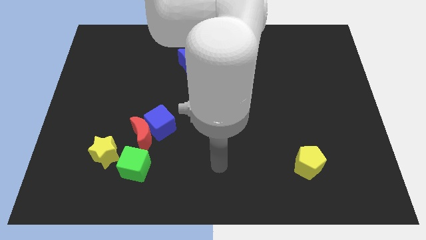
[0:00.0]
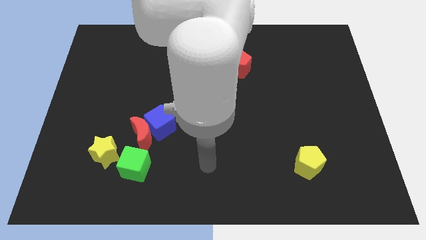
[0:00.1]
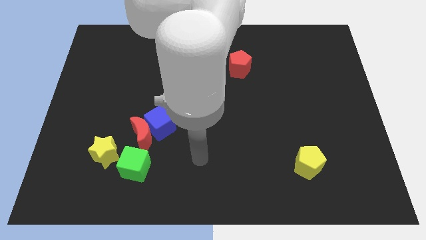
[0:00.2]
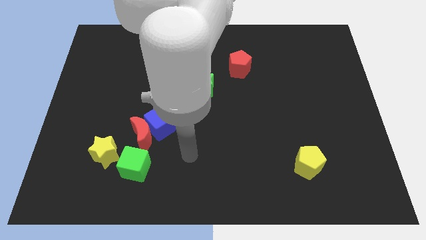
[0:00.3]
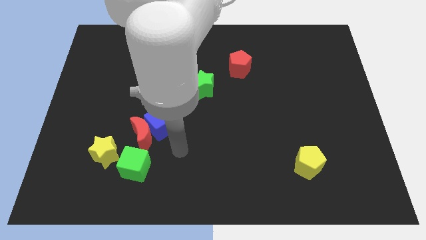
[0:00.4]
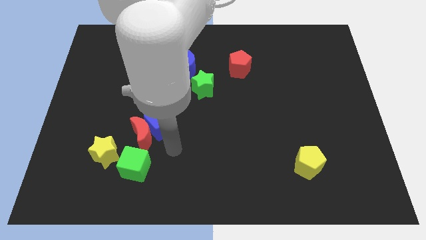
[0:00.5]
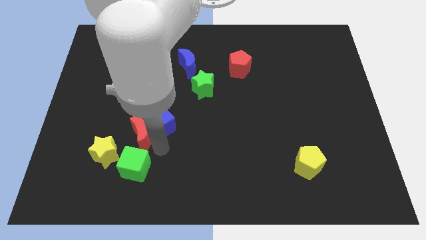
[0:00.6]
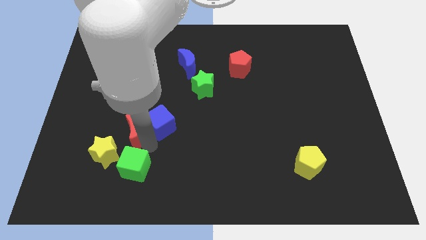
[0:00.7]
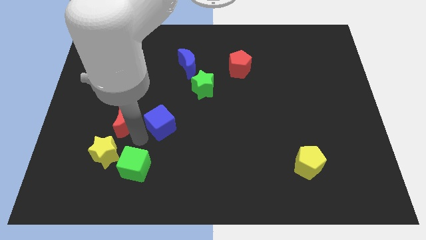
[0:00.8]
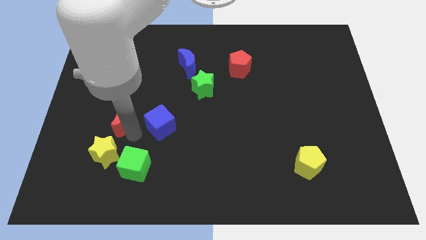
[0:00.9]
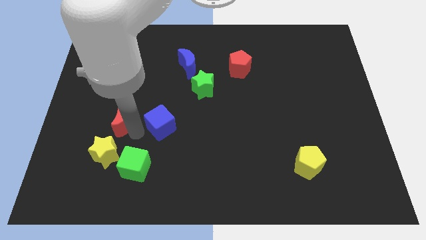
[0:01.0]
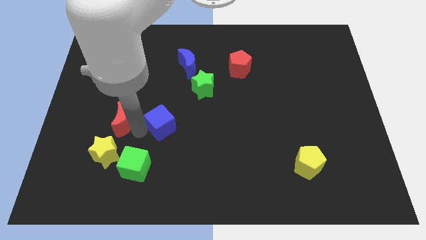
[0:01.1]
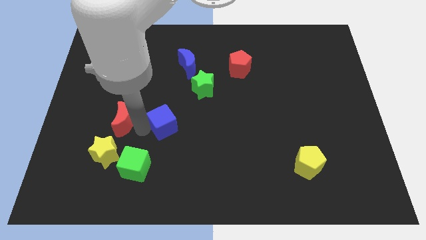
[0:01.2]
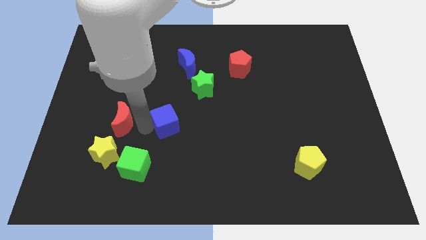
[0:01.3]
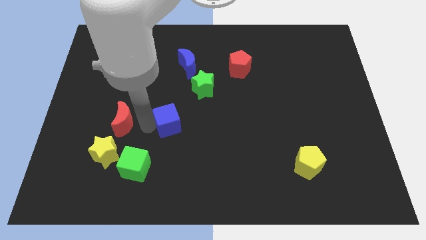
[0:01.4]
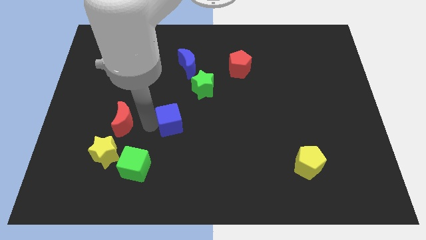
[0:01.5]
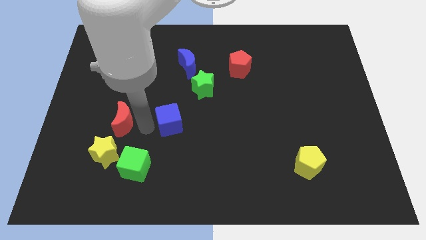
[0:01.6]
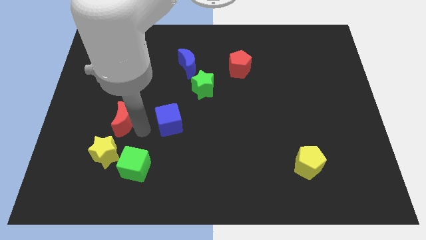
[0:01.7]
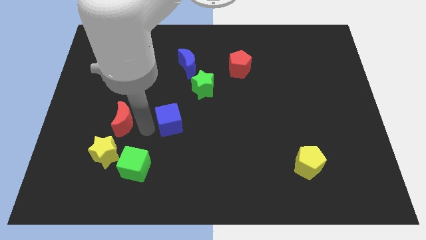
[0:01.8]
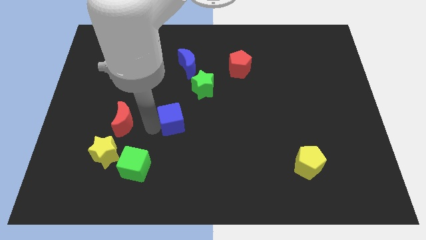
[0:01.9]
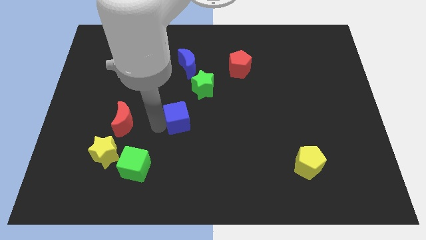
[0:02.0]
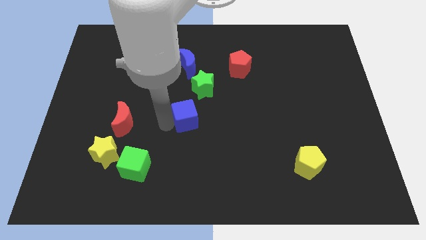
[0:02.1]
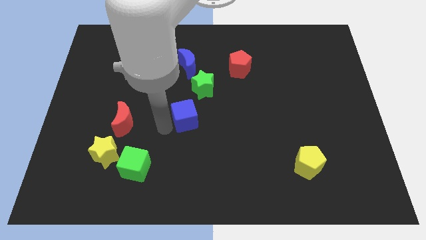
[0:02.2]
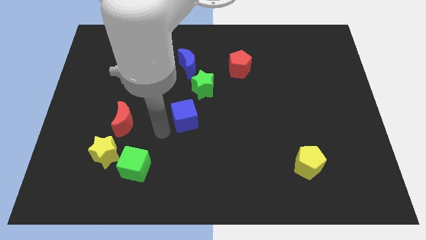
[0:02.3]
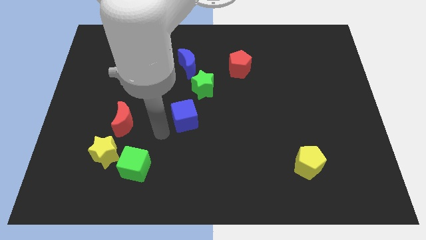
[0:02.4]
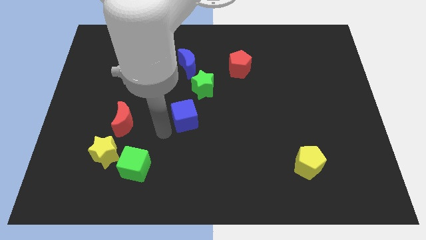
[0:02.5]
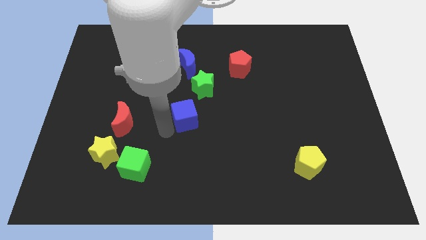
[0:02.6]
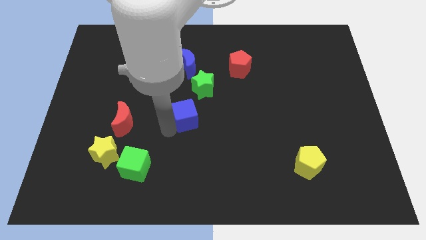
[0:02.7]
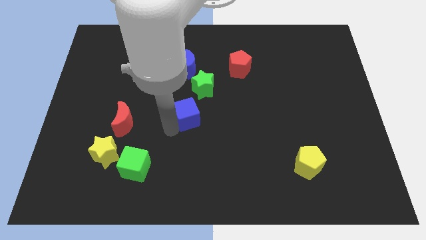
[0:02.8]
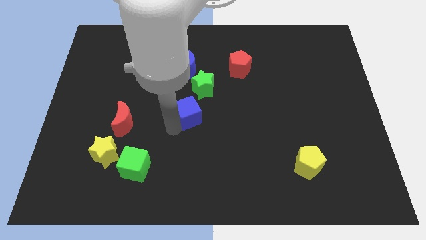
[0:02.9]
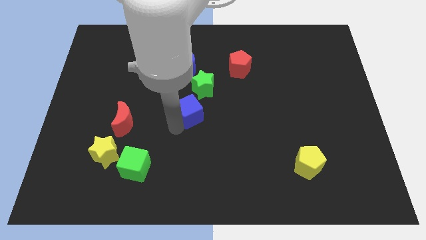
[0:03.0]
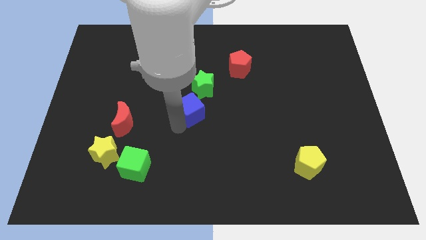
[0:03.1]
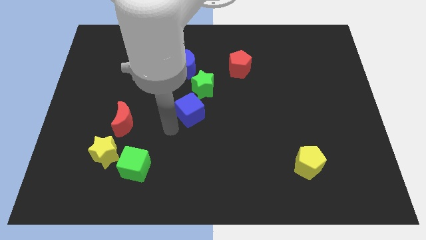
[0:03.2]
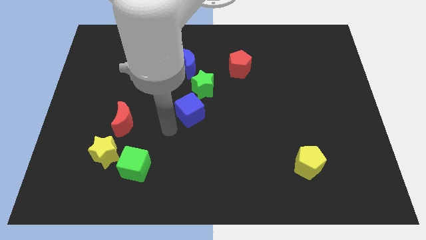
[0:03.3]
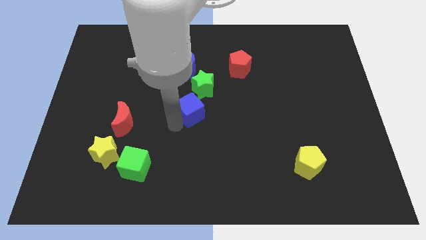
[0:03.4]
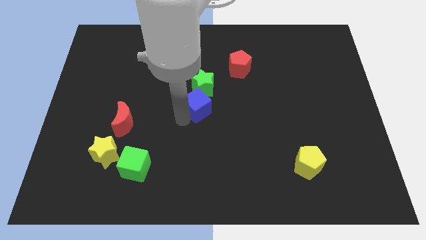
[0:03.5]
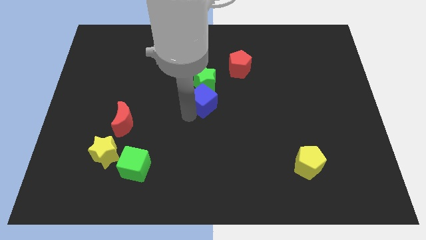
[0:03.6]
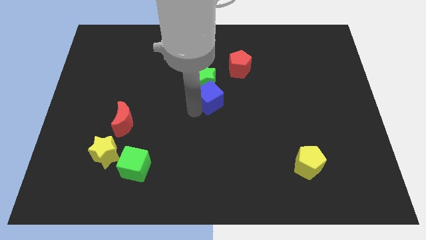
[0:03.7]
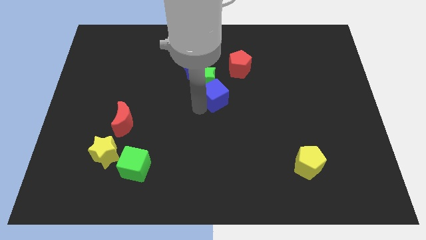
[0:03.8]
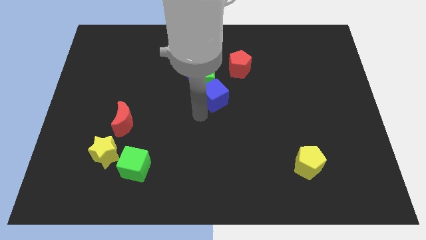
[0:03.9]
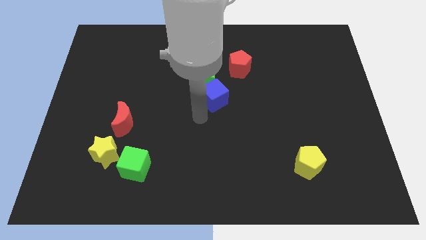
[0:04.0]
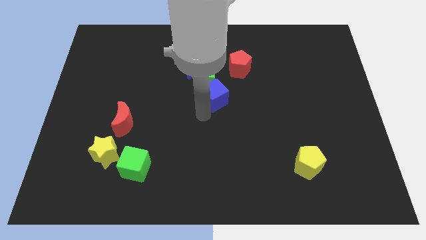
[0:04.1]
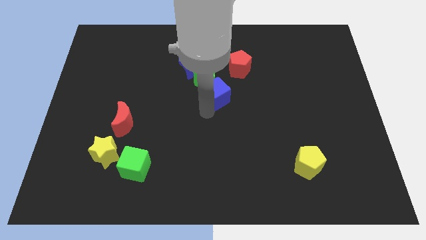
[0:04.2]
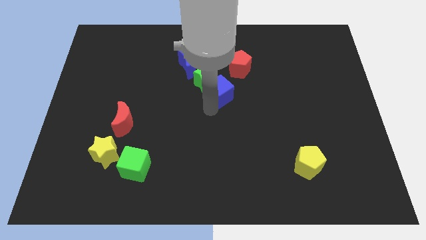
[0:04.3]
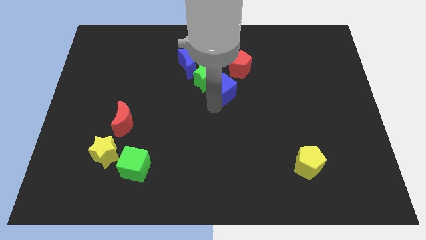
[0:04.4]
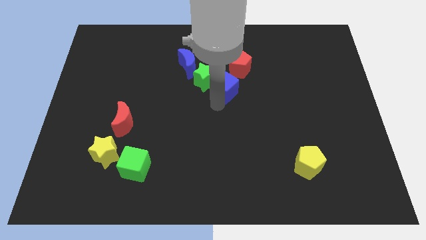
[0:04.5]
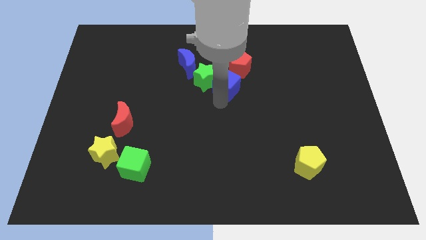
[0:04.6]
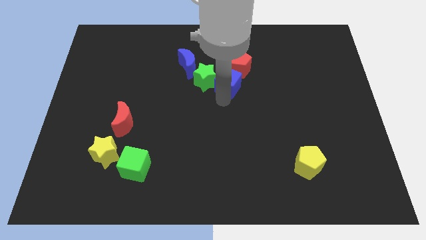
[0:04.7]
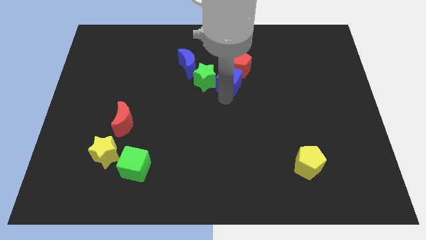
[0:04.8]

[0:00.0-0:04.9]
move the blue cube close to the red pentagon

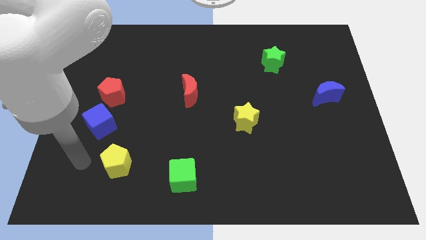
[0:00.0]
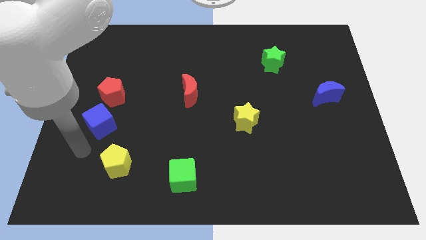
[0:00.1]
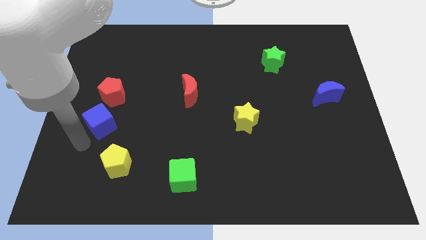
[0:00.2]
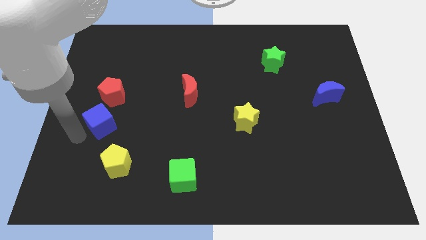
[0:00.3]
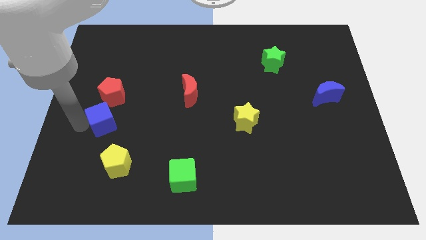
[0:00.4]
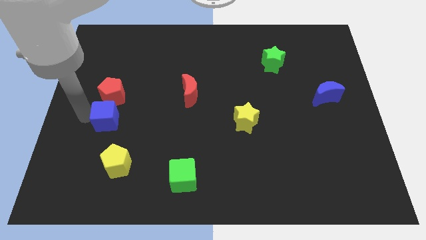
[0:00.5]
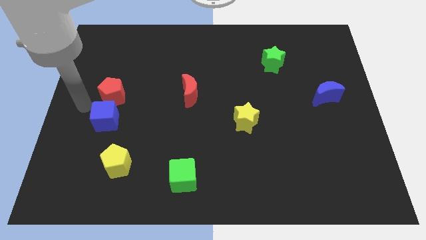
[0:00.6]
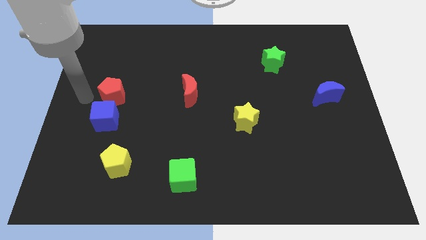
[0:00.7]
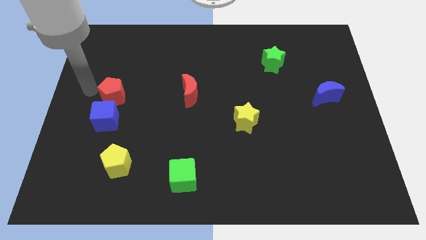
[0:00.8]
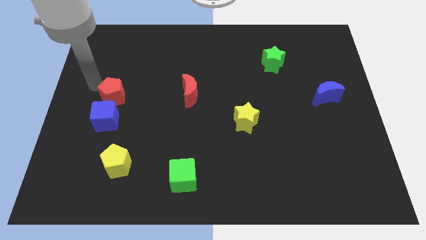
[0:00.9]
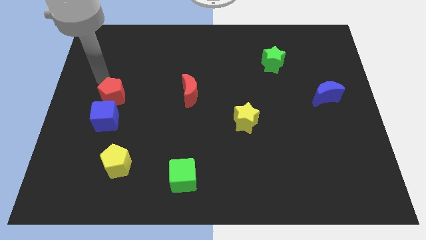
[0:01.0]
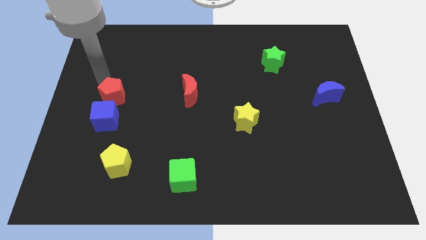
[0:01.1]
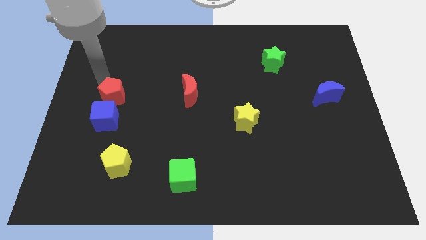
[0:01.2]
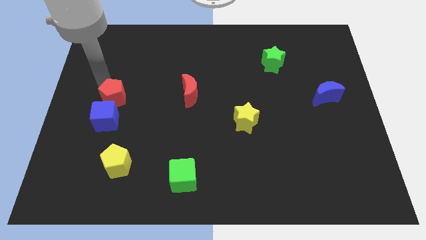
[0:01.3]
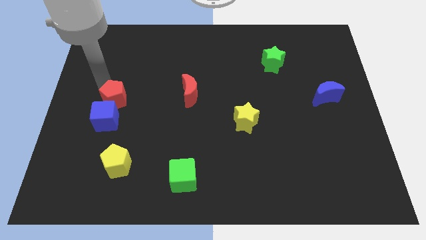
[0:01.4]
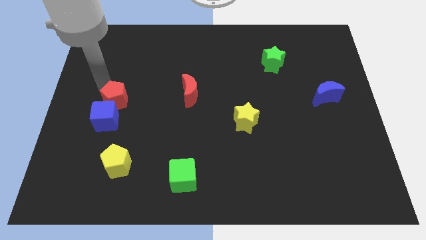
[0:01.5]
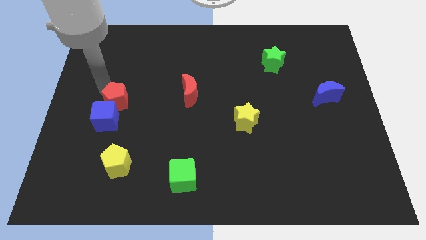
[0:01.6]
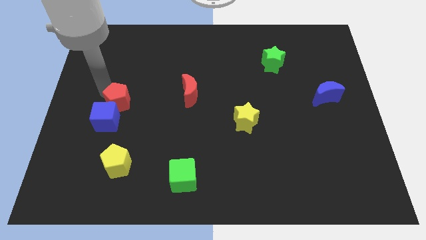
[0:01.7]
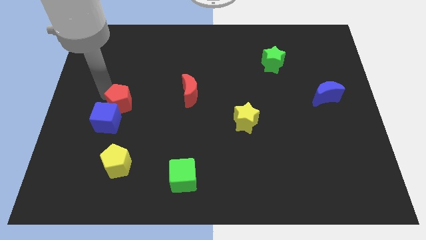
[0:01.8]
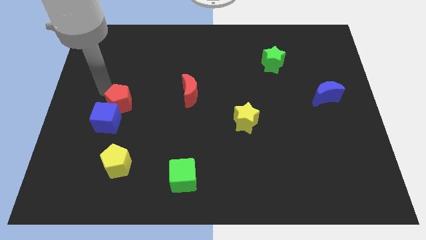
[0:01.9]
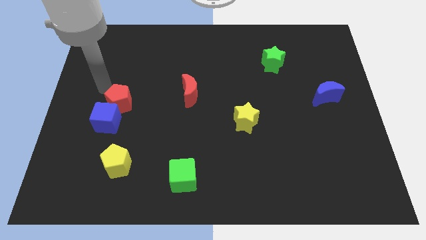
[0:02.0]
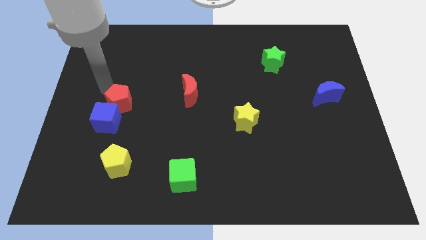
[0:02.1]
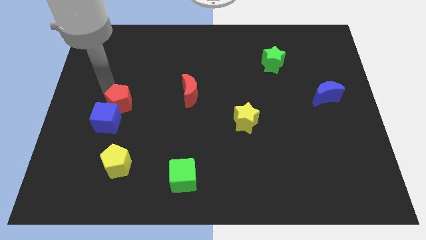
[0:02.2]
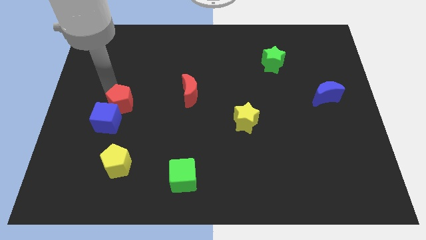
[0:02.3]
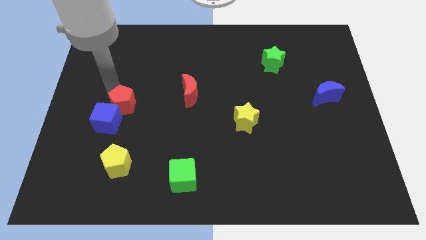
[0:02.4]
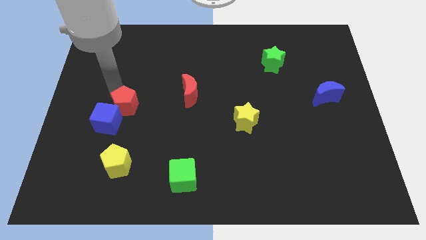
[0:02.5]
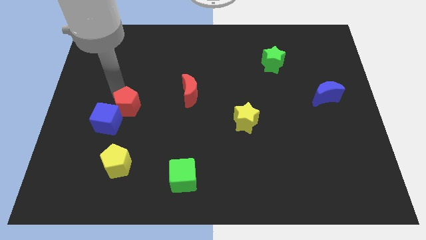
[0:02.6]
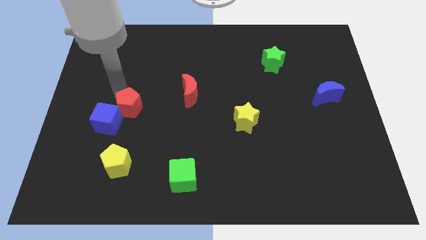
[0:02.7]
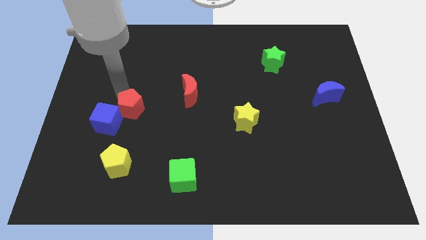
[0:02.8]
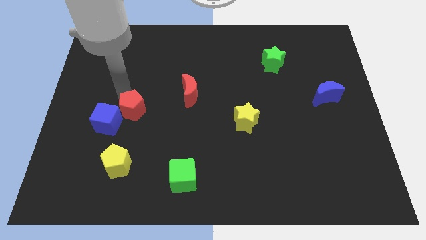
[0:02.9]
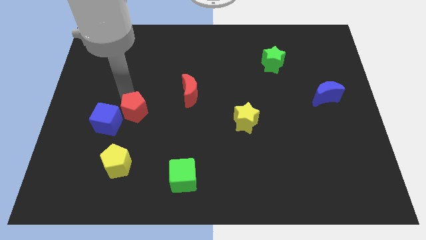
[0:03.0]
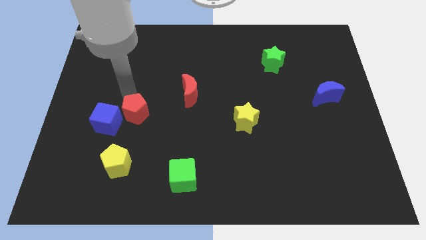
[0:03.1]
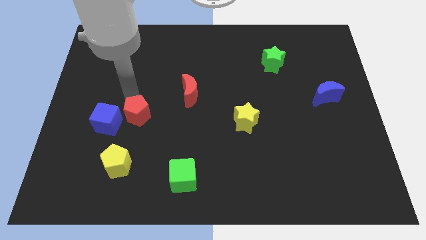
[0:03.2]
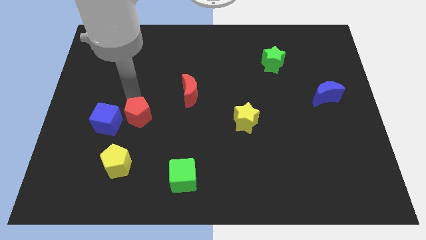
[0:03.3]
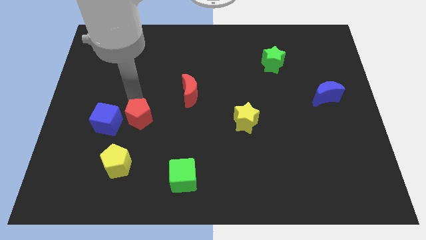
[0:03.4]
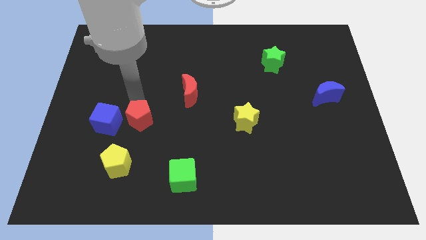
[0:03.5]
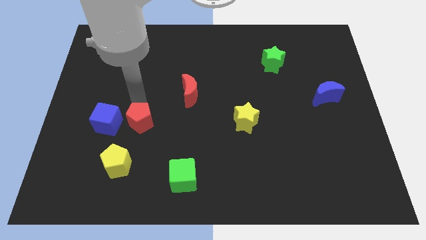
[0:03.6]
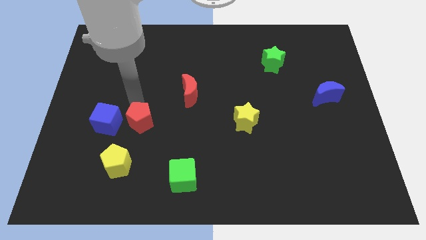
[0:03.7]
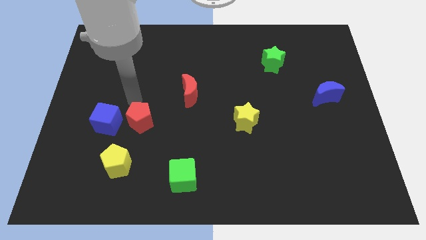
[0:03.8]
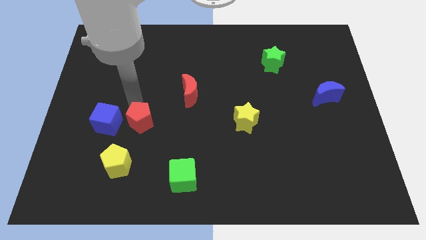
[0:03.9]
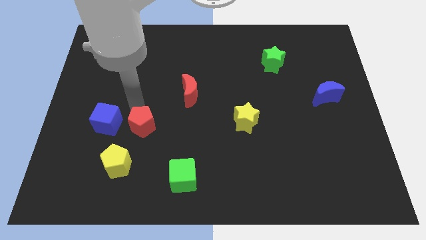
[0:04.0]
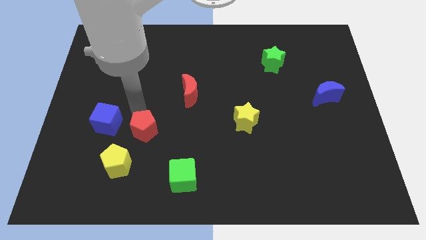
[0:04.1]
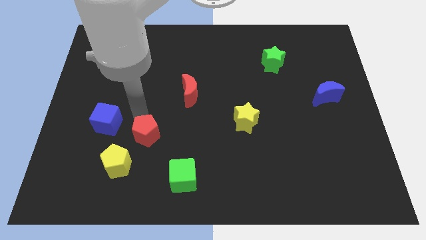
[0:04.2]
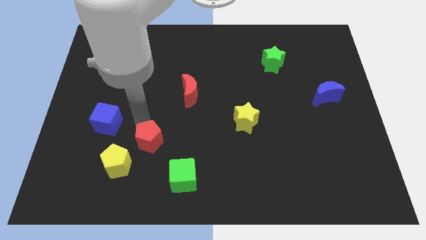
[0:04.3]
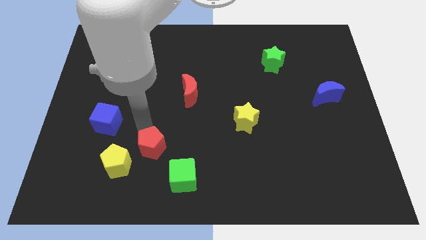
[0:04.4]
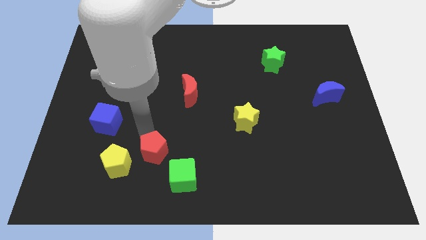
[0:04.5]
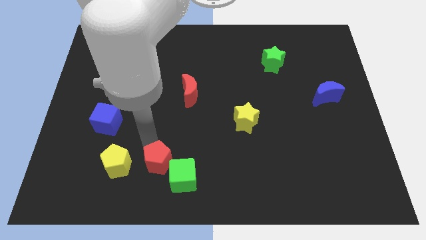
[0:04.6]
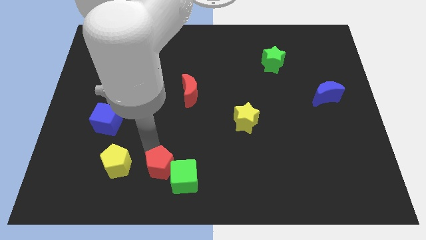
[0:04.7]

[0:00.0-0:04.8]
move the red pentagon towards the green cube
